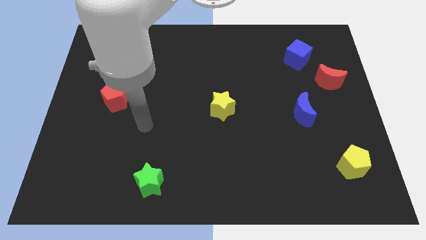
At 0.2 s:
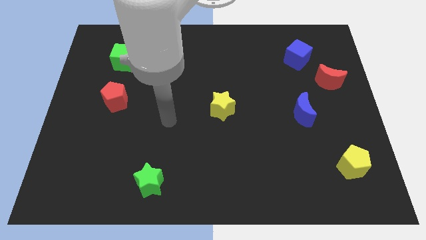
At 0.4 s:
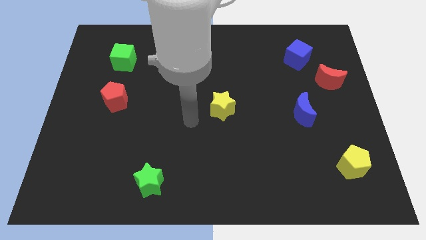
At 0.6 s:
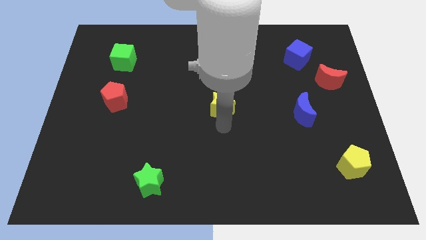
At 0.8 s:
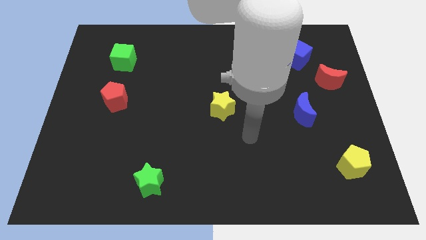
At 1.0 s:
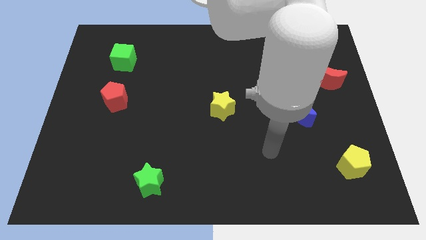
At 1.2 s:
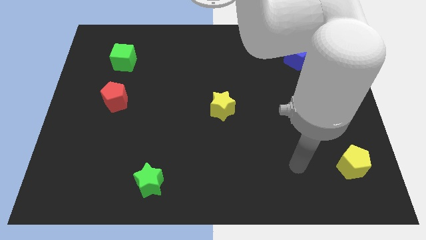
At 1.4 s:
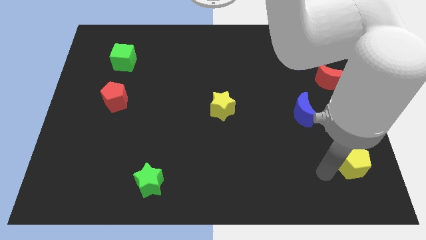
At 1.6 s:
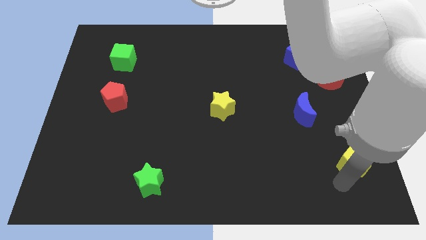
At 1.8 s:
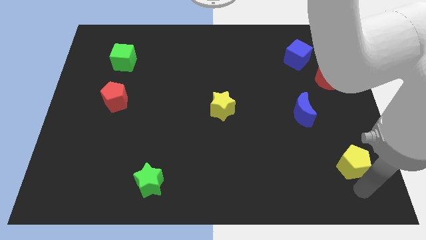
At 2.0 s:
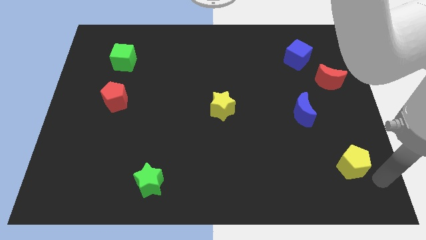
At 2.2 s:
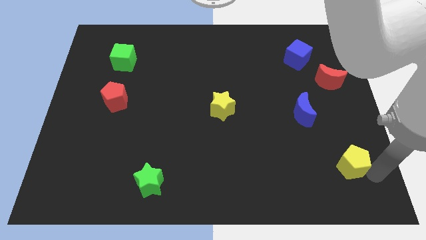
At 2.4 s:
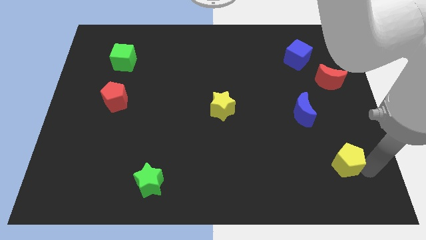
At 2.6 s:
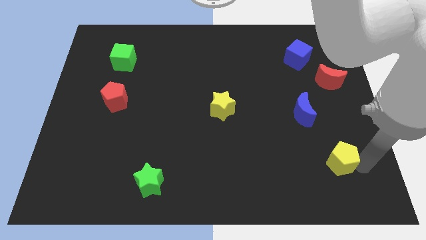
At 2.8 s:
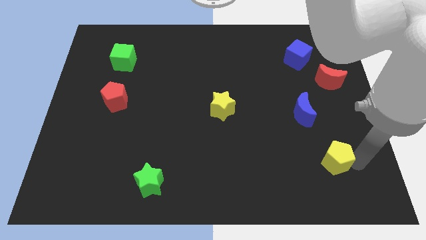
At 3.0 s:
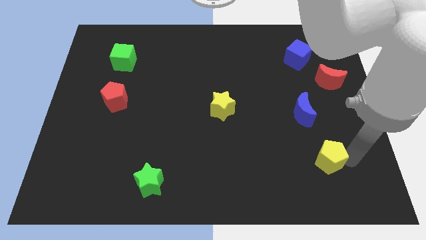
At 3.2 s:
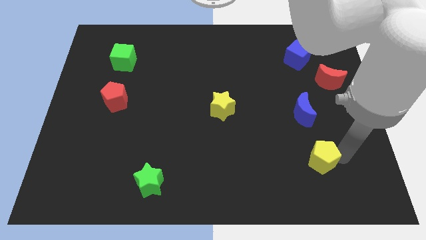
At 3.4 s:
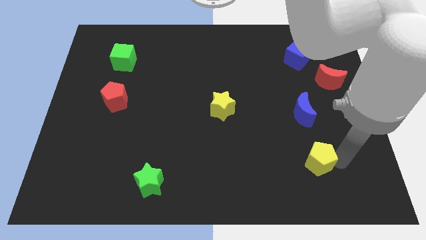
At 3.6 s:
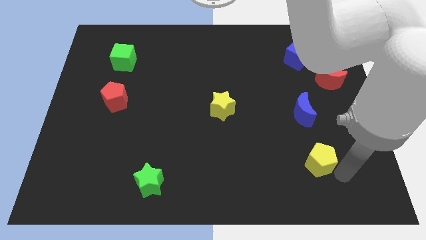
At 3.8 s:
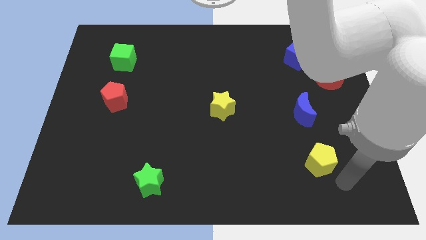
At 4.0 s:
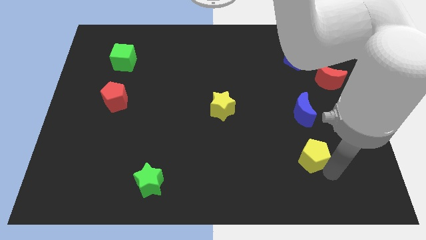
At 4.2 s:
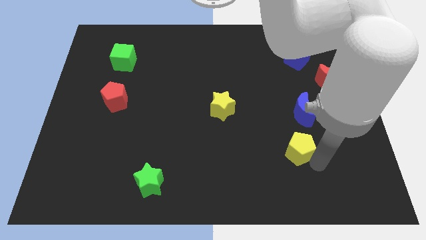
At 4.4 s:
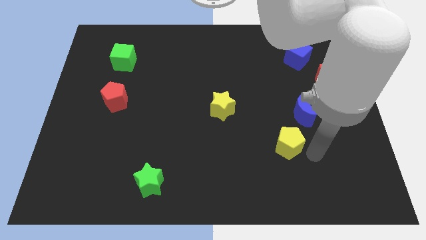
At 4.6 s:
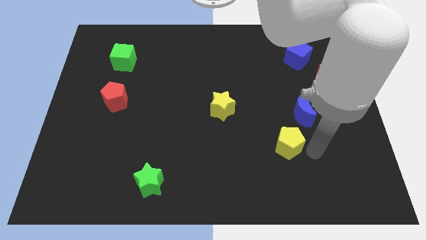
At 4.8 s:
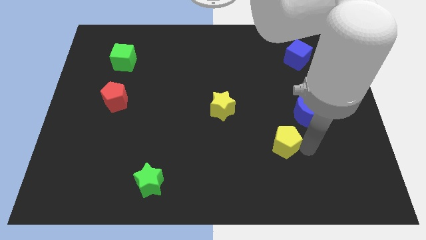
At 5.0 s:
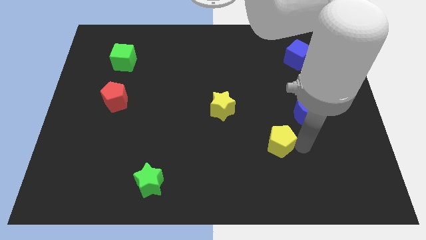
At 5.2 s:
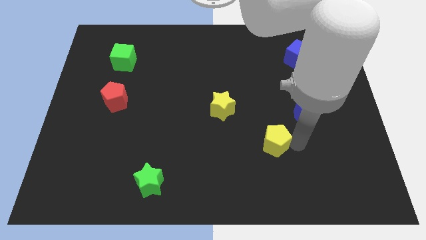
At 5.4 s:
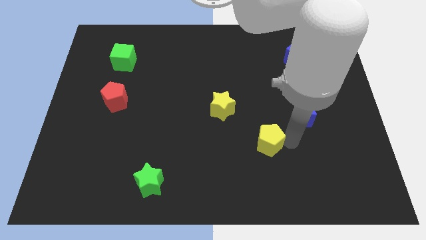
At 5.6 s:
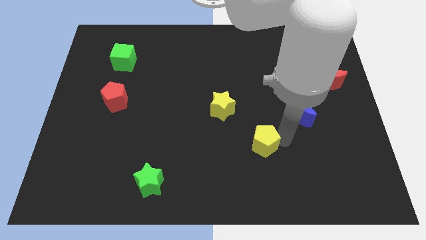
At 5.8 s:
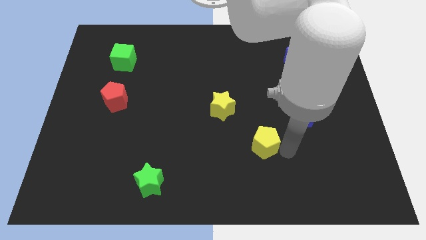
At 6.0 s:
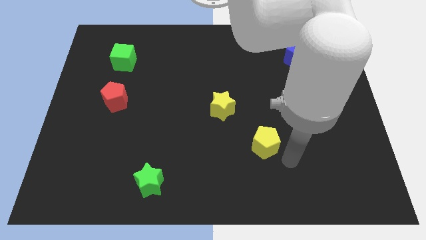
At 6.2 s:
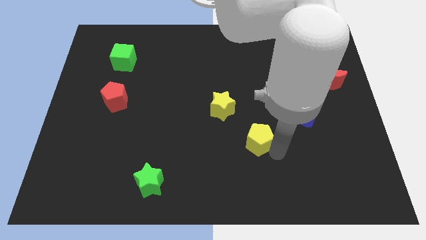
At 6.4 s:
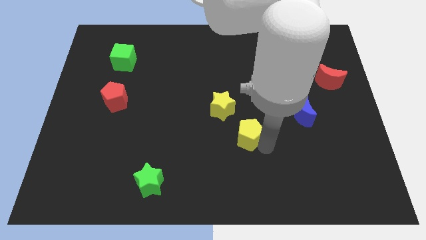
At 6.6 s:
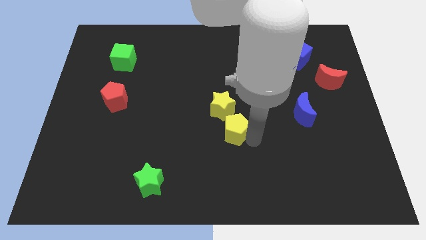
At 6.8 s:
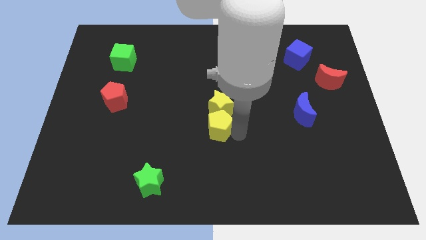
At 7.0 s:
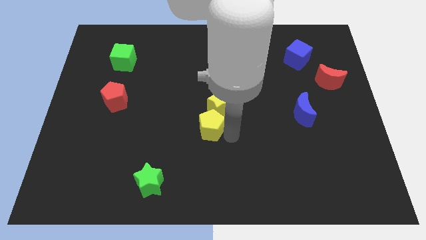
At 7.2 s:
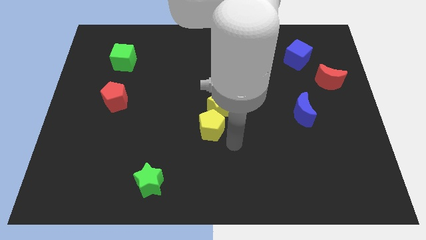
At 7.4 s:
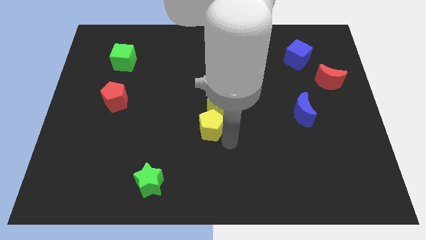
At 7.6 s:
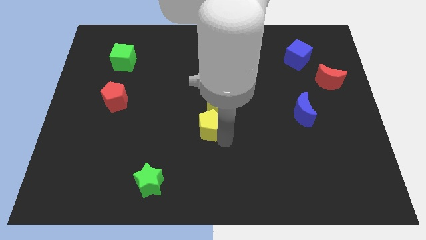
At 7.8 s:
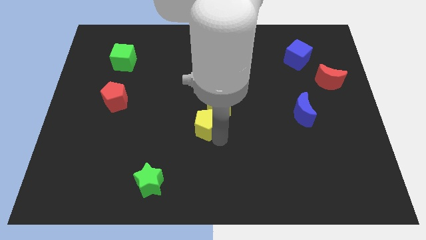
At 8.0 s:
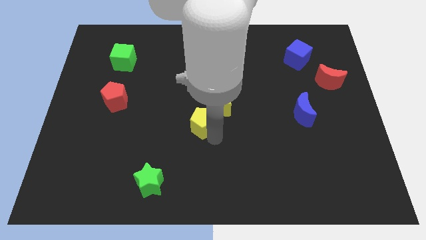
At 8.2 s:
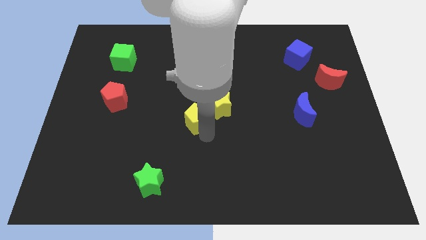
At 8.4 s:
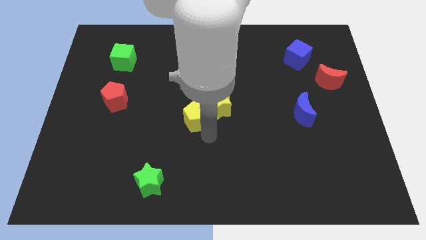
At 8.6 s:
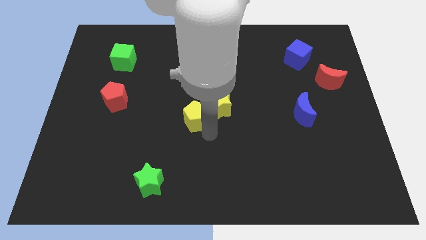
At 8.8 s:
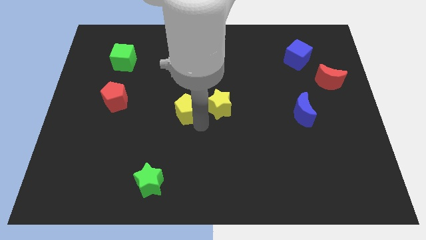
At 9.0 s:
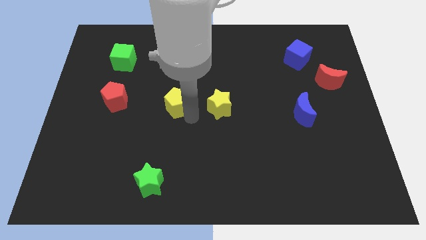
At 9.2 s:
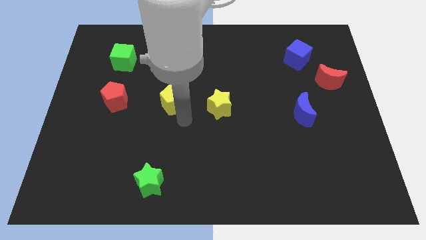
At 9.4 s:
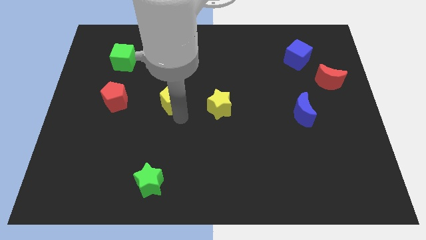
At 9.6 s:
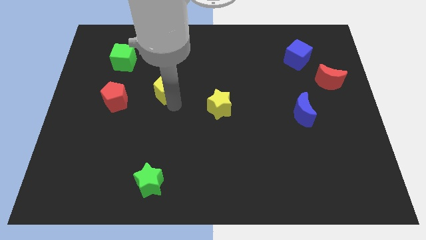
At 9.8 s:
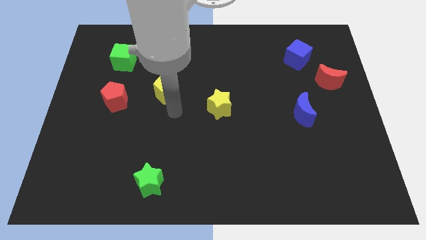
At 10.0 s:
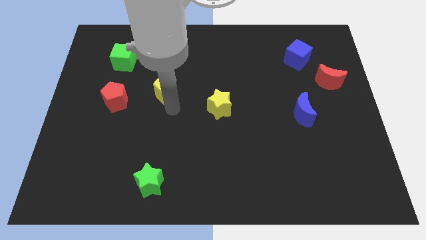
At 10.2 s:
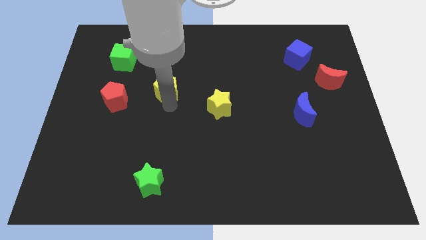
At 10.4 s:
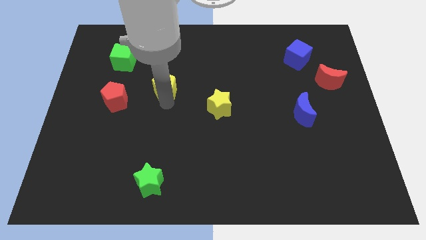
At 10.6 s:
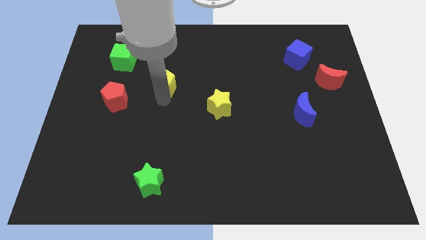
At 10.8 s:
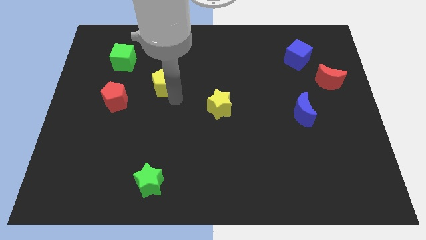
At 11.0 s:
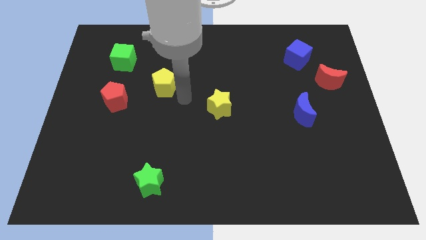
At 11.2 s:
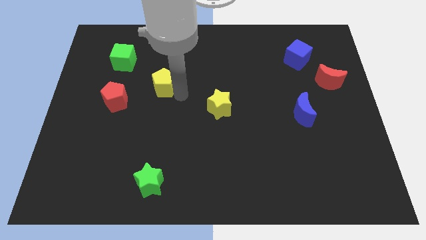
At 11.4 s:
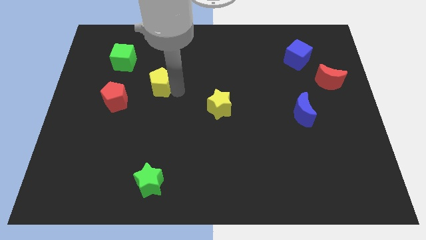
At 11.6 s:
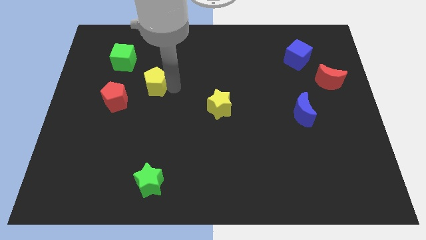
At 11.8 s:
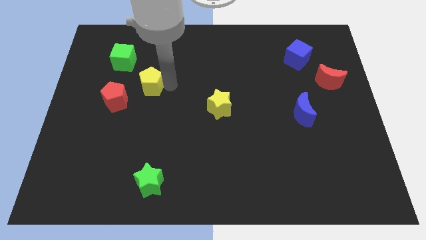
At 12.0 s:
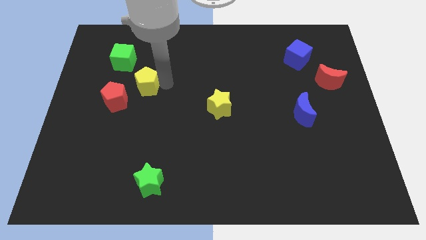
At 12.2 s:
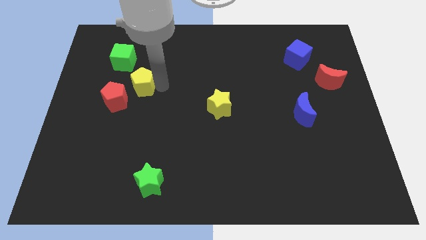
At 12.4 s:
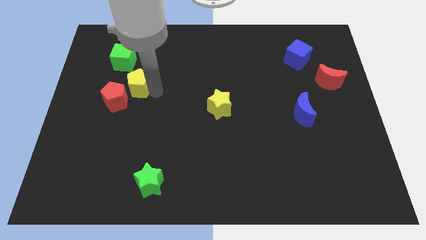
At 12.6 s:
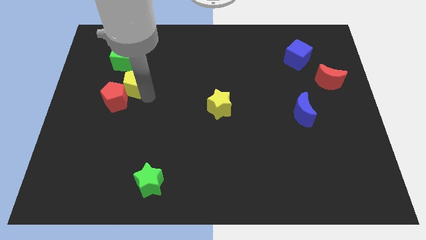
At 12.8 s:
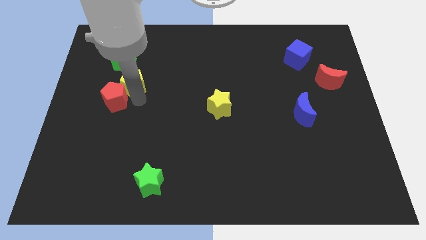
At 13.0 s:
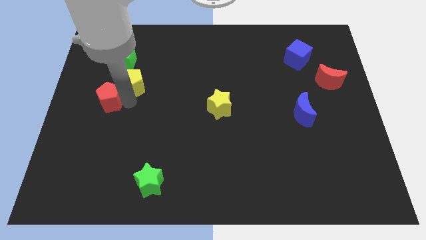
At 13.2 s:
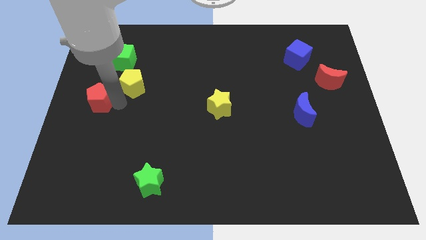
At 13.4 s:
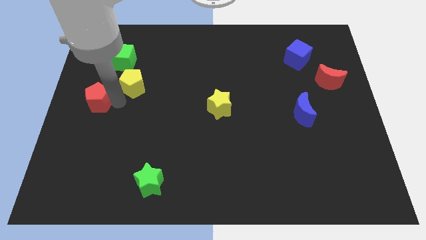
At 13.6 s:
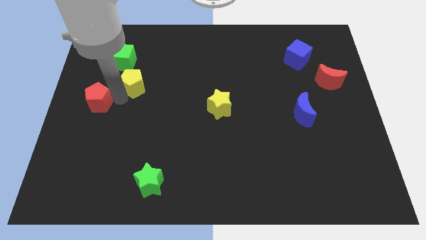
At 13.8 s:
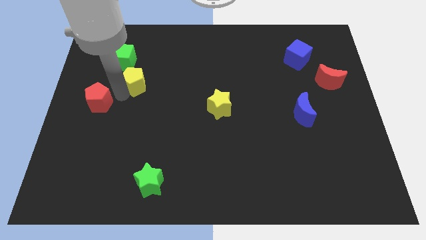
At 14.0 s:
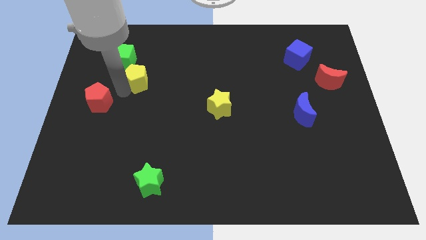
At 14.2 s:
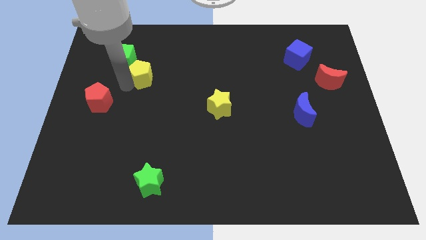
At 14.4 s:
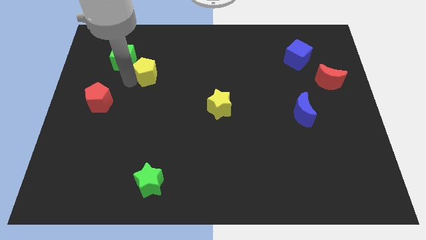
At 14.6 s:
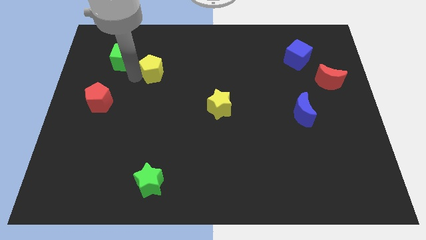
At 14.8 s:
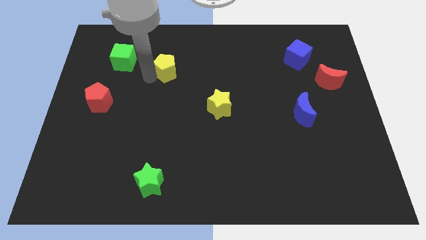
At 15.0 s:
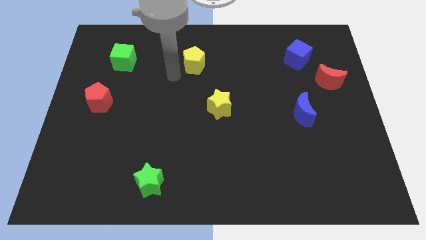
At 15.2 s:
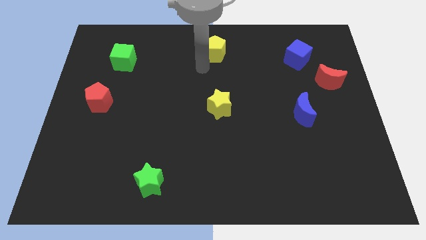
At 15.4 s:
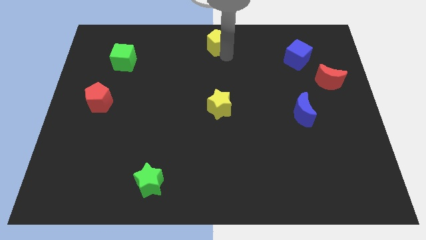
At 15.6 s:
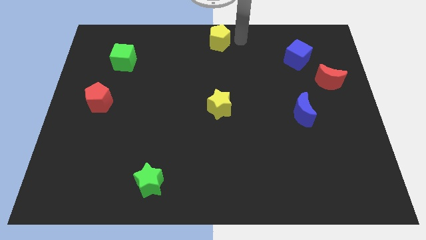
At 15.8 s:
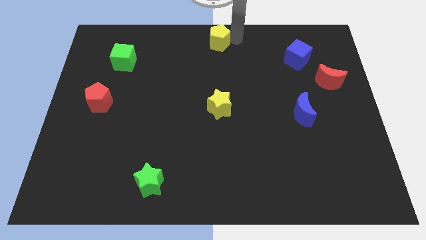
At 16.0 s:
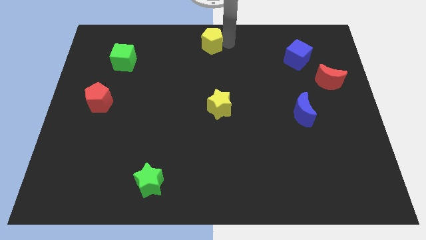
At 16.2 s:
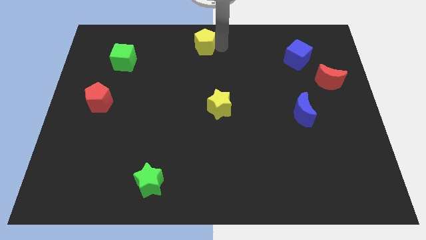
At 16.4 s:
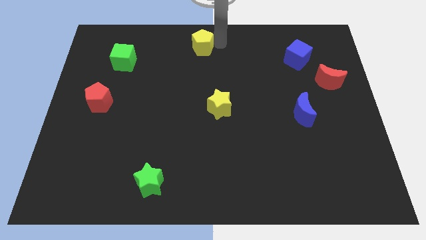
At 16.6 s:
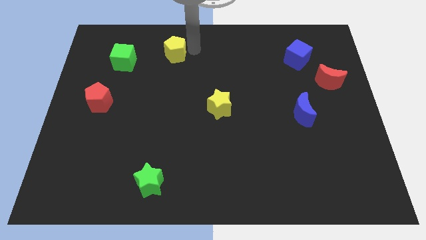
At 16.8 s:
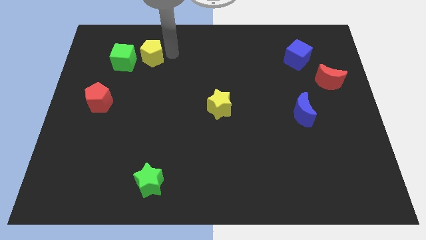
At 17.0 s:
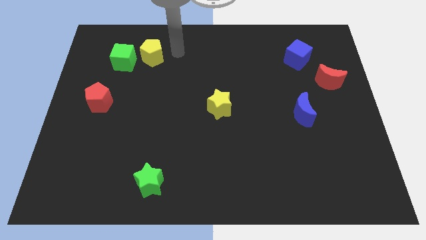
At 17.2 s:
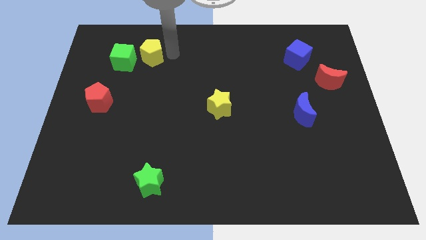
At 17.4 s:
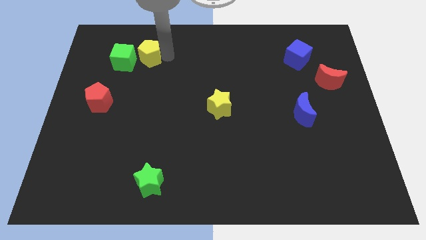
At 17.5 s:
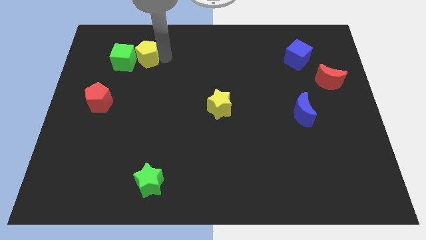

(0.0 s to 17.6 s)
push the yellow pentagon next to the green cube
